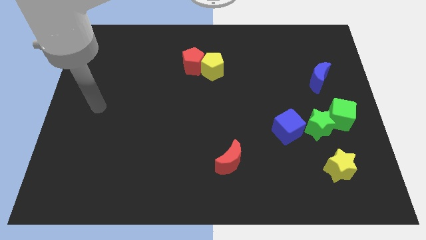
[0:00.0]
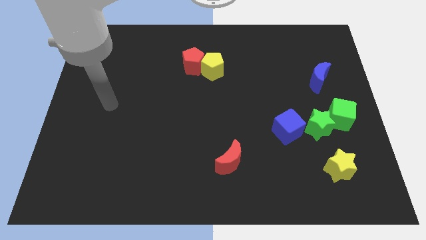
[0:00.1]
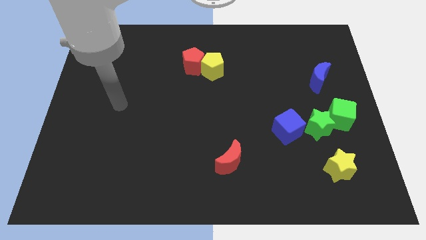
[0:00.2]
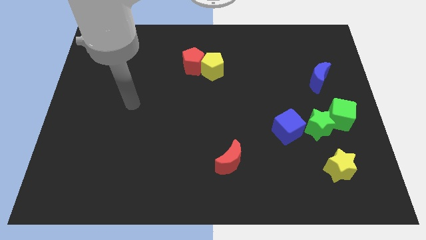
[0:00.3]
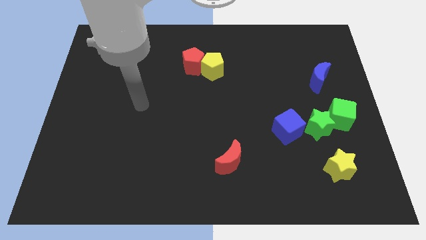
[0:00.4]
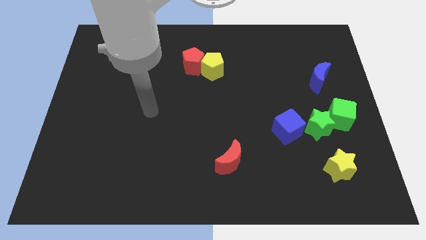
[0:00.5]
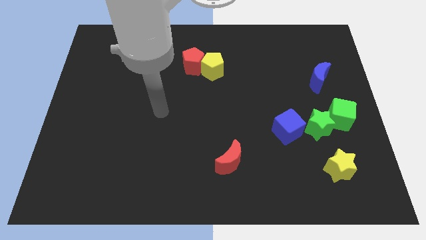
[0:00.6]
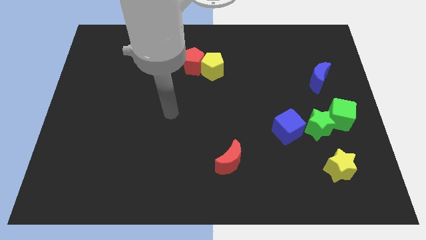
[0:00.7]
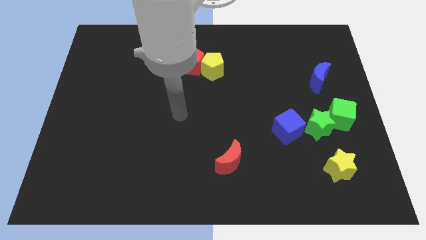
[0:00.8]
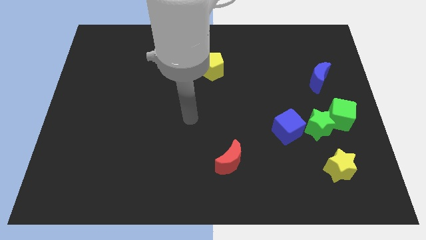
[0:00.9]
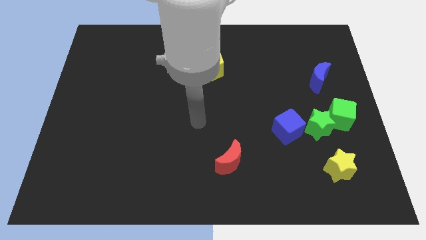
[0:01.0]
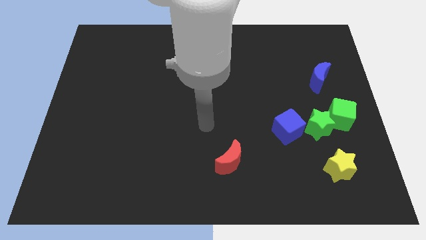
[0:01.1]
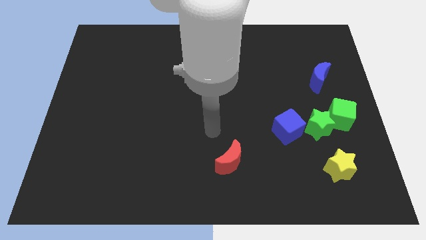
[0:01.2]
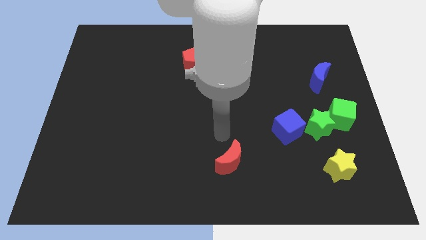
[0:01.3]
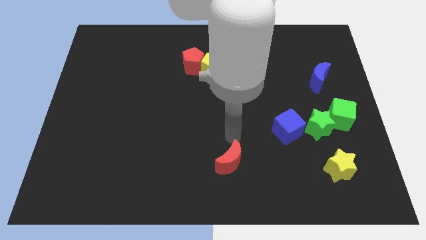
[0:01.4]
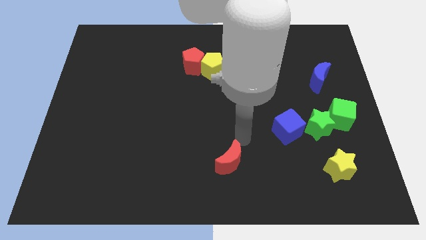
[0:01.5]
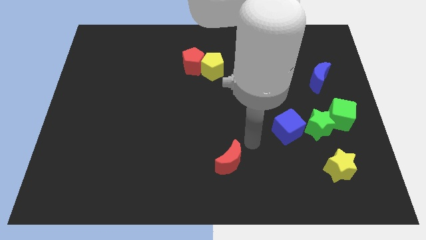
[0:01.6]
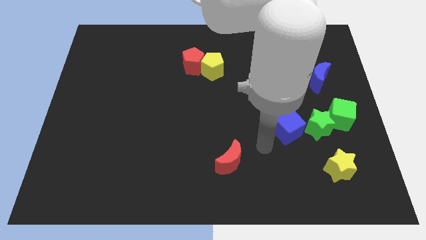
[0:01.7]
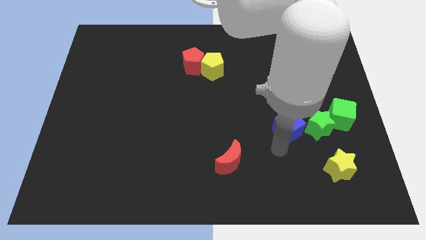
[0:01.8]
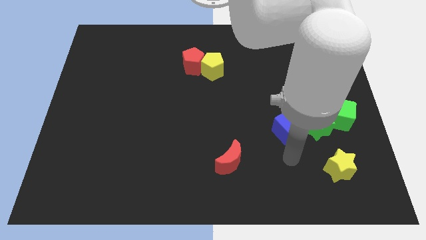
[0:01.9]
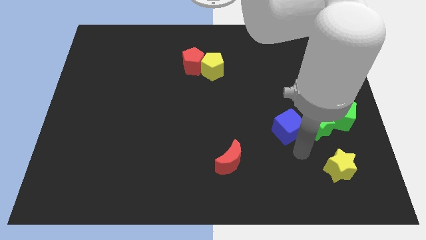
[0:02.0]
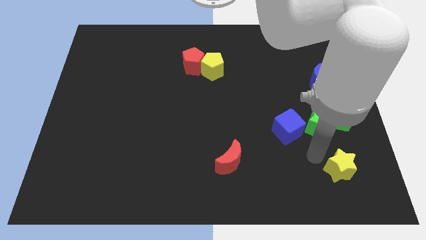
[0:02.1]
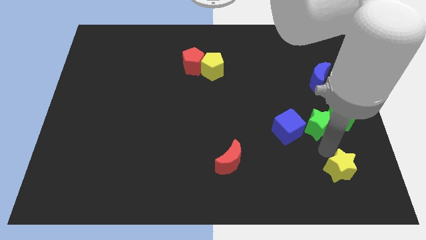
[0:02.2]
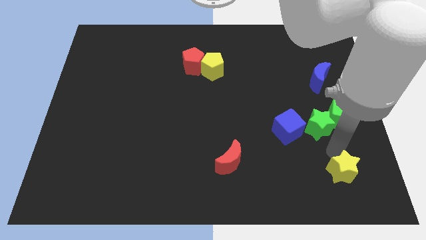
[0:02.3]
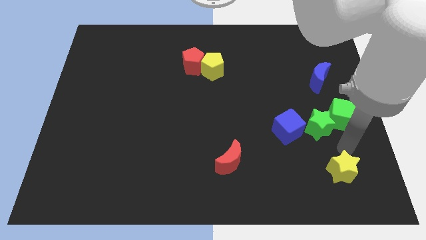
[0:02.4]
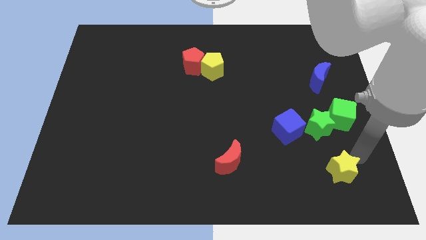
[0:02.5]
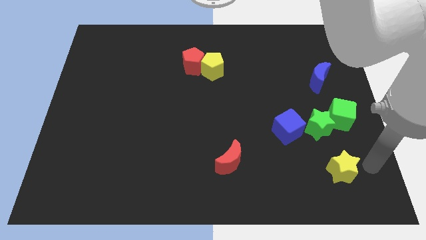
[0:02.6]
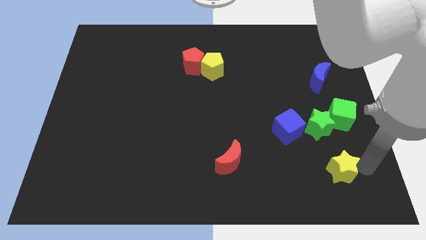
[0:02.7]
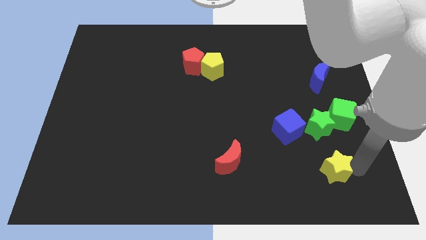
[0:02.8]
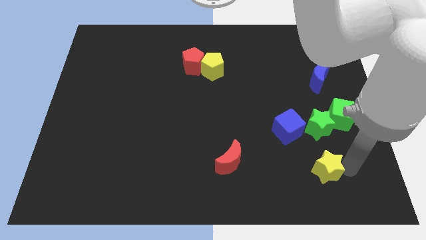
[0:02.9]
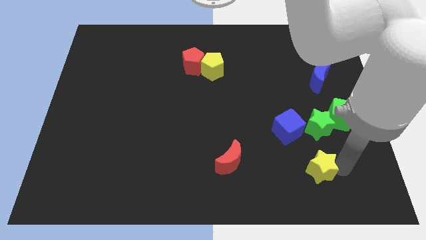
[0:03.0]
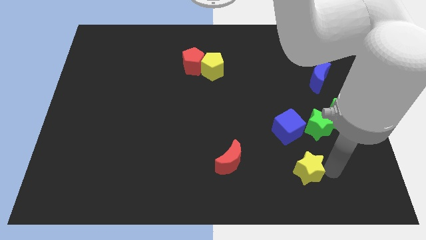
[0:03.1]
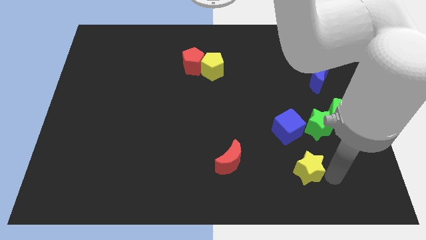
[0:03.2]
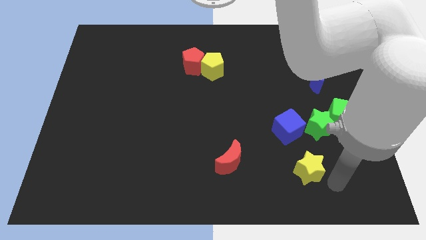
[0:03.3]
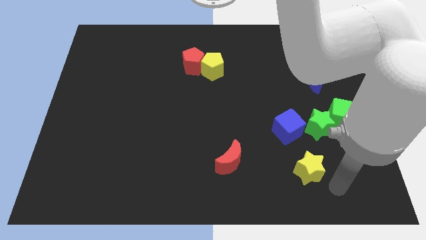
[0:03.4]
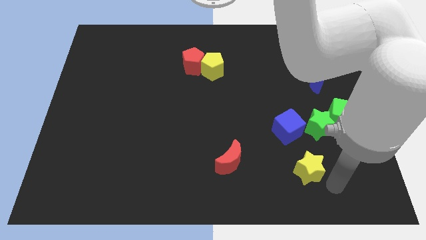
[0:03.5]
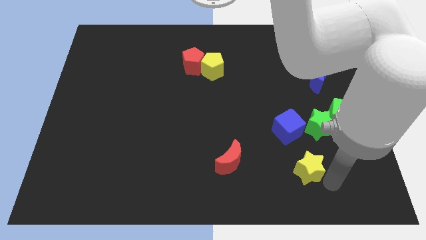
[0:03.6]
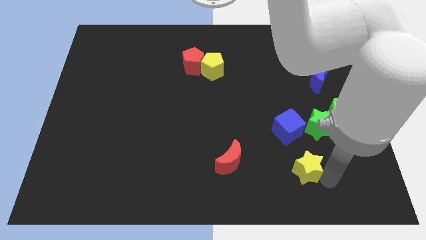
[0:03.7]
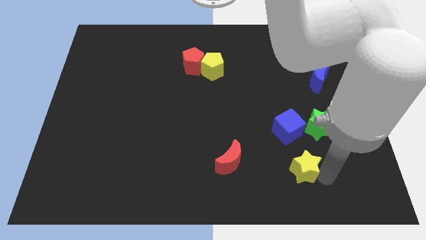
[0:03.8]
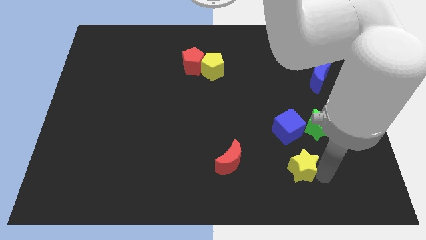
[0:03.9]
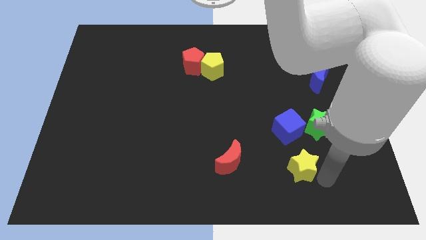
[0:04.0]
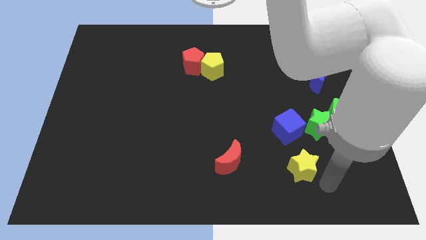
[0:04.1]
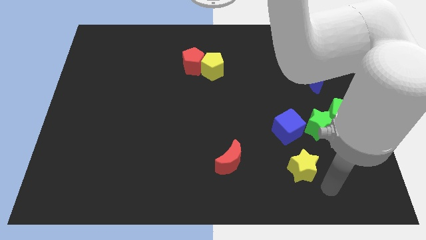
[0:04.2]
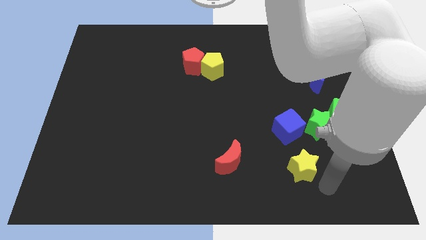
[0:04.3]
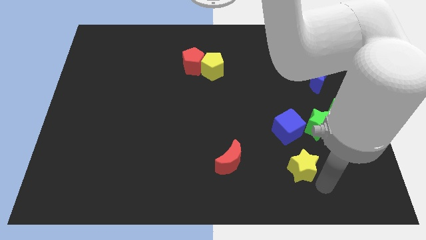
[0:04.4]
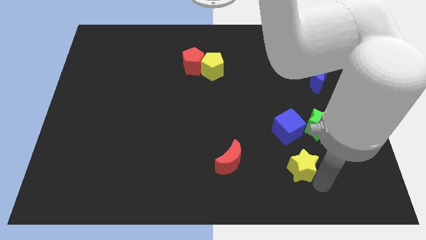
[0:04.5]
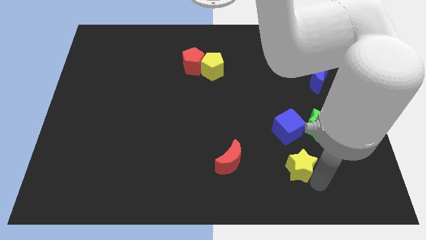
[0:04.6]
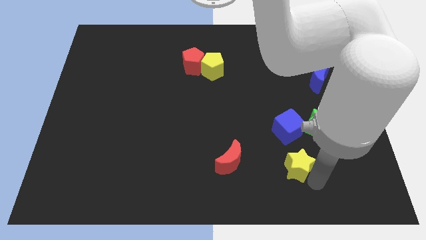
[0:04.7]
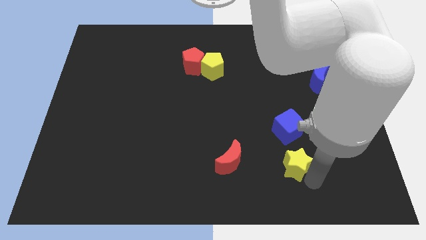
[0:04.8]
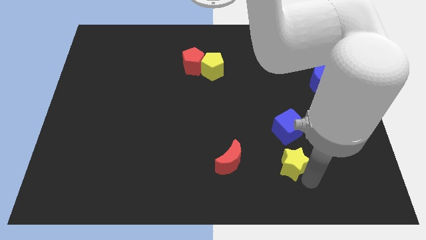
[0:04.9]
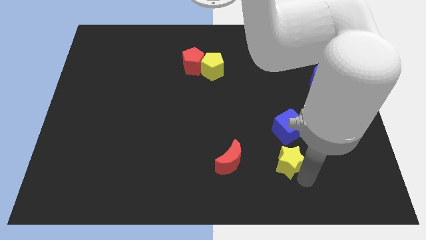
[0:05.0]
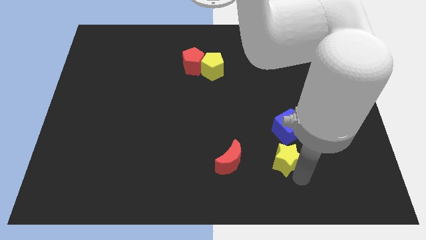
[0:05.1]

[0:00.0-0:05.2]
push the yellow star a bit up and then to the left

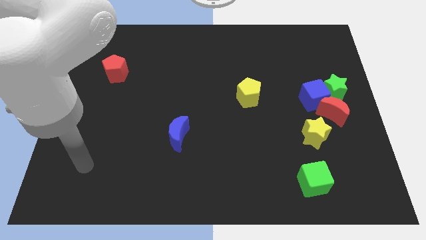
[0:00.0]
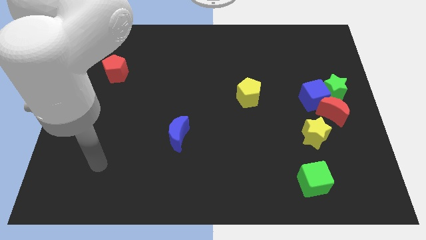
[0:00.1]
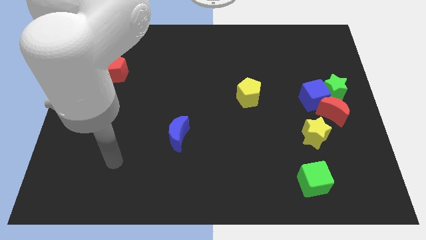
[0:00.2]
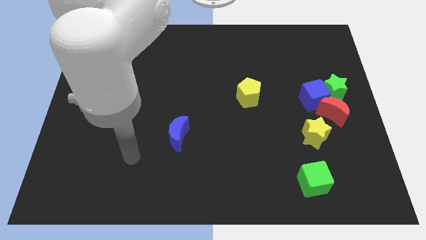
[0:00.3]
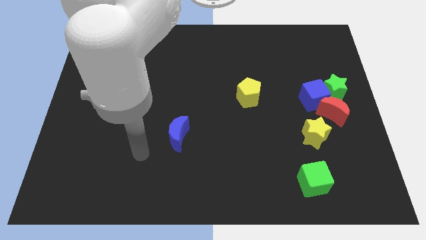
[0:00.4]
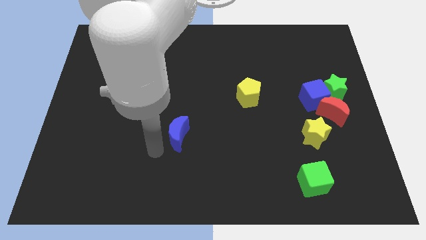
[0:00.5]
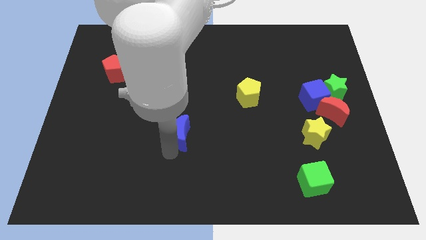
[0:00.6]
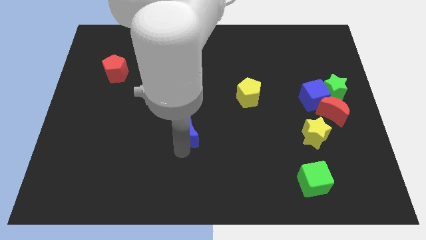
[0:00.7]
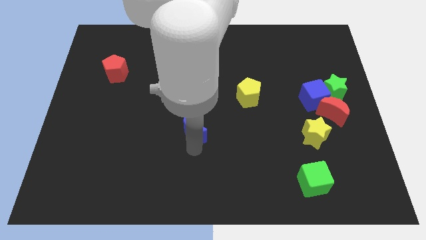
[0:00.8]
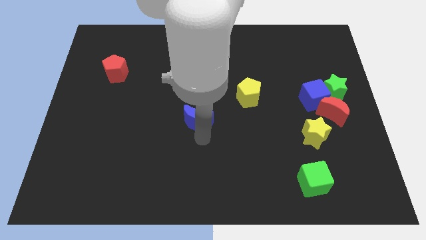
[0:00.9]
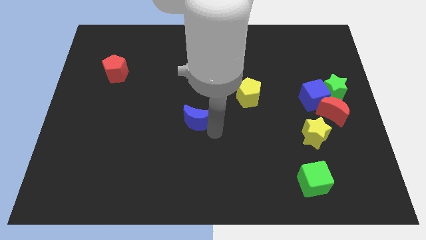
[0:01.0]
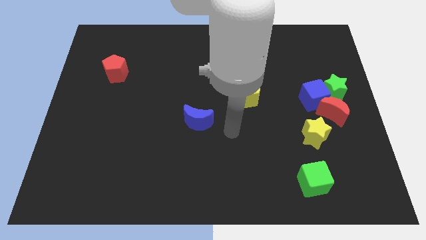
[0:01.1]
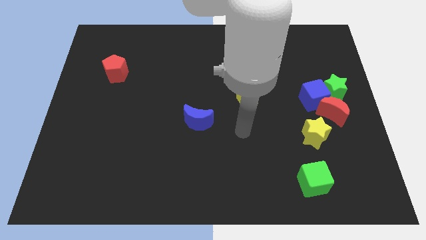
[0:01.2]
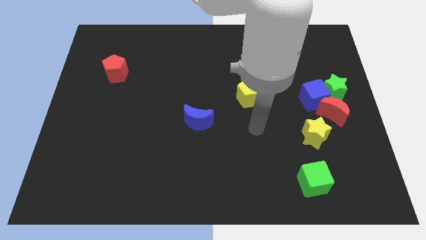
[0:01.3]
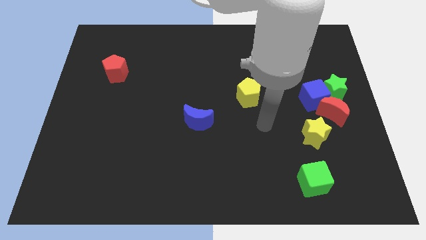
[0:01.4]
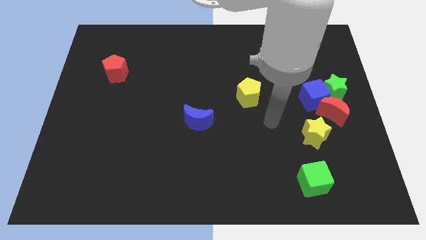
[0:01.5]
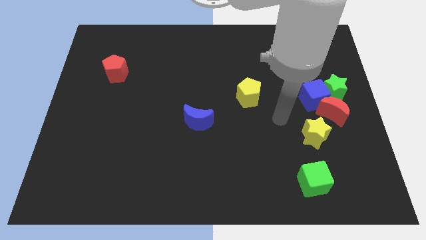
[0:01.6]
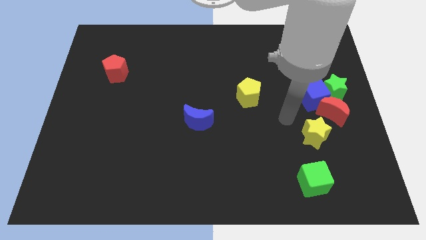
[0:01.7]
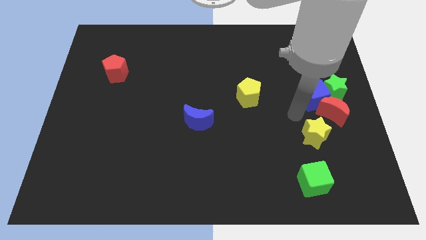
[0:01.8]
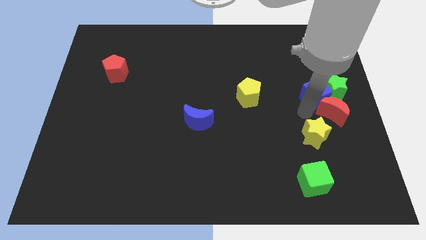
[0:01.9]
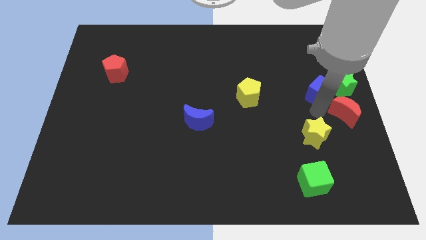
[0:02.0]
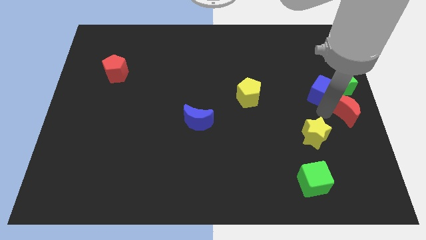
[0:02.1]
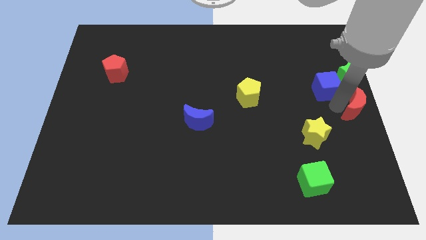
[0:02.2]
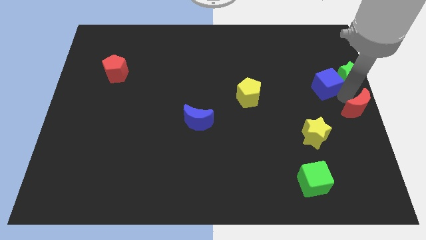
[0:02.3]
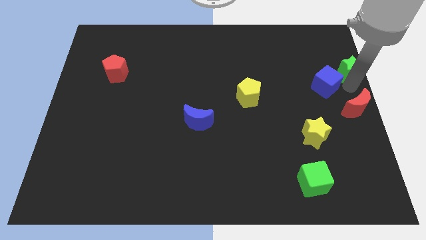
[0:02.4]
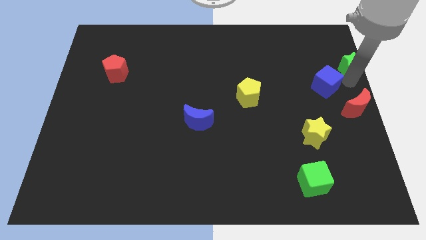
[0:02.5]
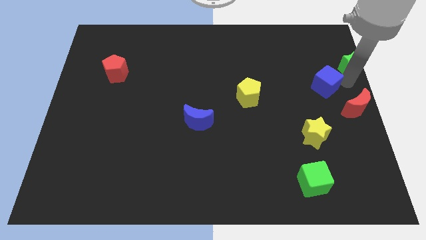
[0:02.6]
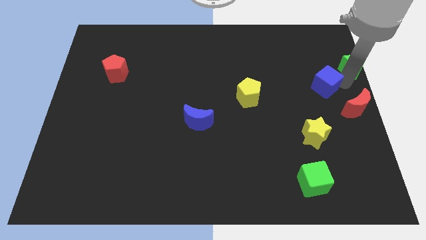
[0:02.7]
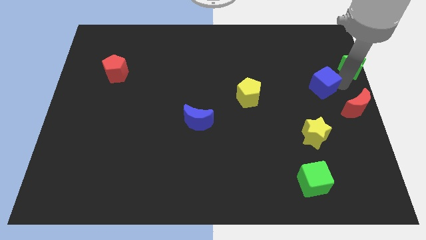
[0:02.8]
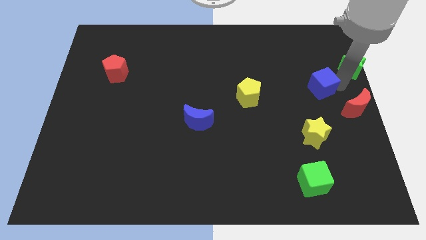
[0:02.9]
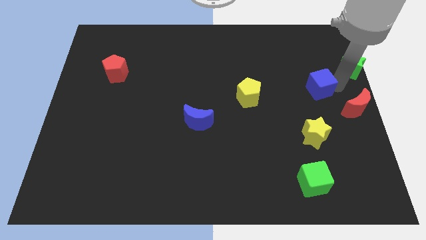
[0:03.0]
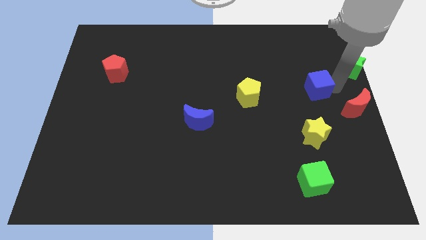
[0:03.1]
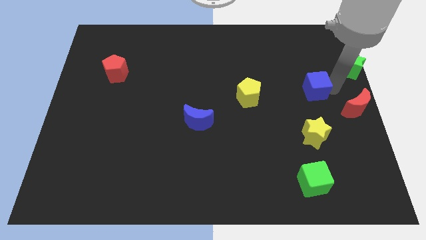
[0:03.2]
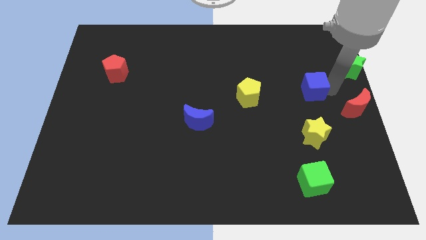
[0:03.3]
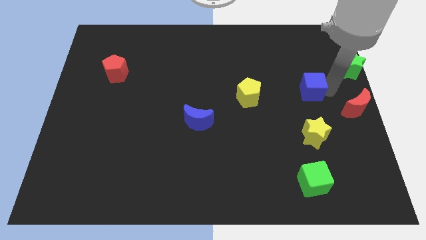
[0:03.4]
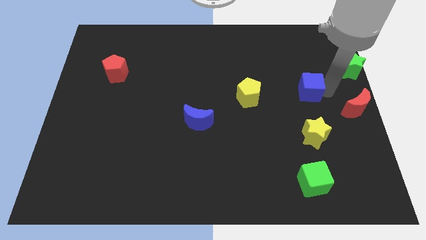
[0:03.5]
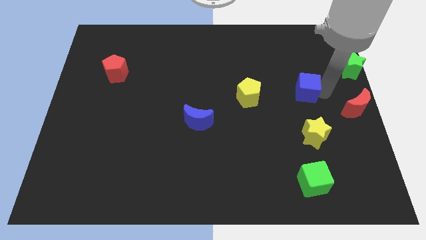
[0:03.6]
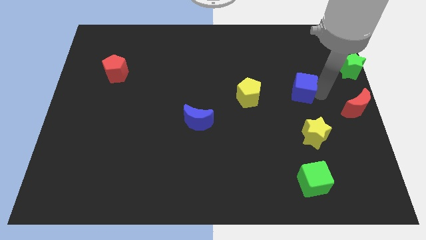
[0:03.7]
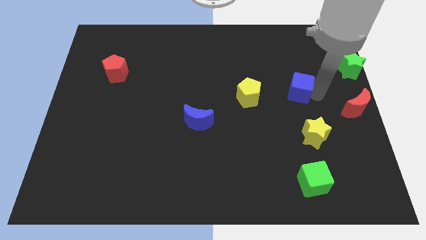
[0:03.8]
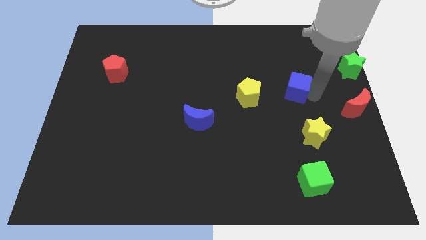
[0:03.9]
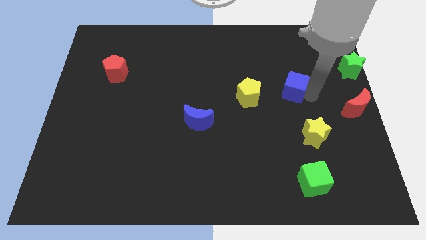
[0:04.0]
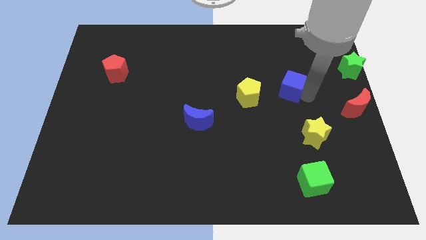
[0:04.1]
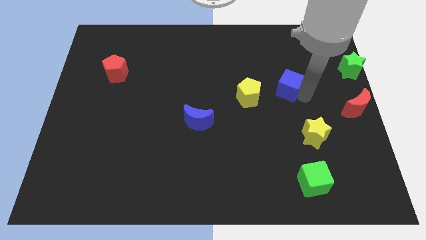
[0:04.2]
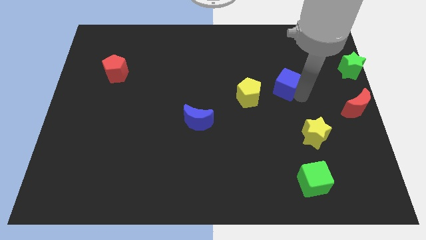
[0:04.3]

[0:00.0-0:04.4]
slightly slide the blue cube up and then to the left
